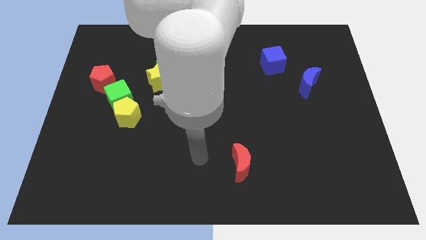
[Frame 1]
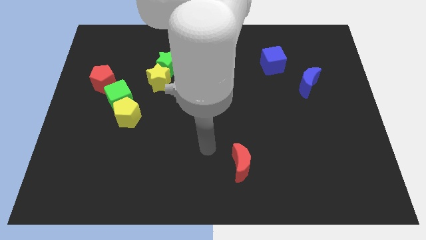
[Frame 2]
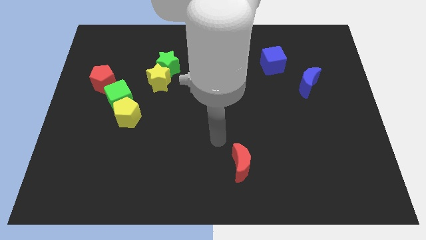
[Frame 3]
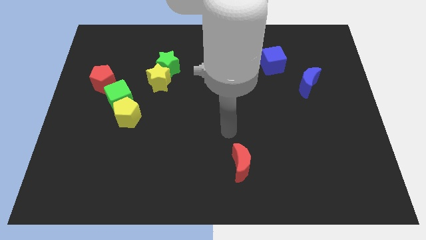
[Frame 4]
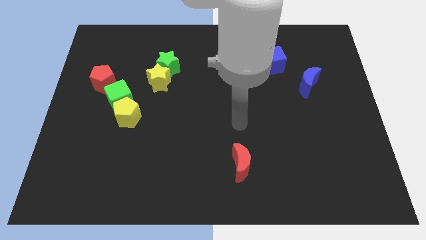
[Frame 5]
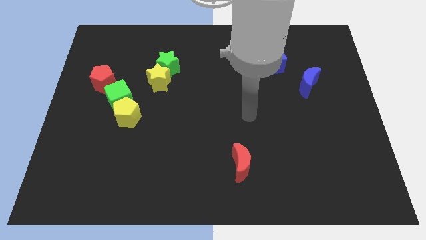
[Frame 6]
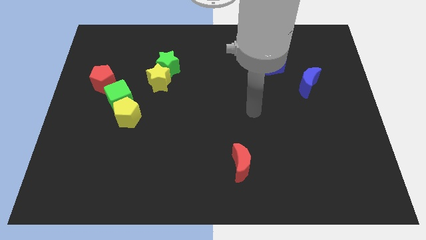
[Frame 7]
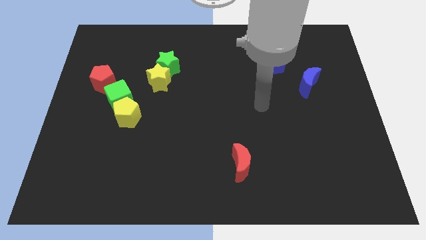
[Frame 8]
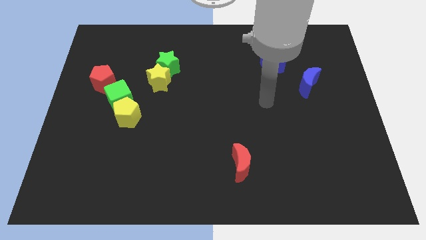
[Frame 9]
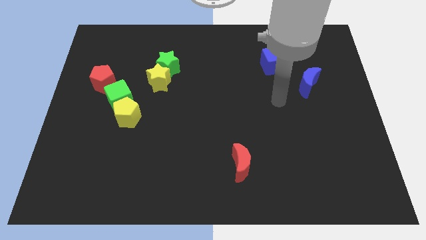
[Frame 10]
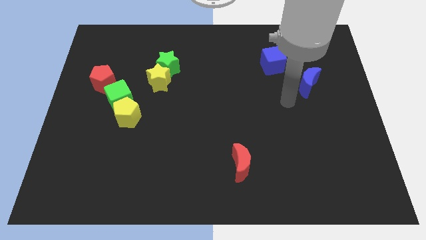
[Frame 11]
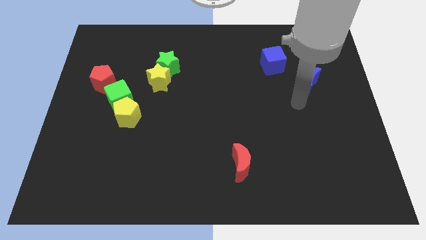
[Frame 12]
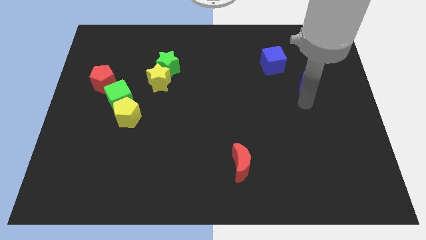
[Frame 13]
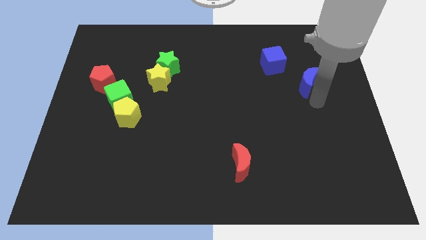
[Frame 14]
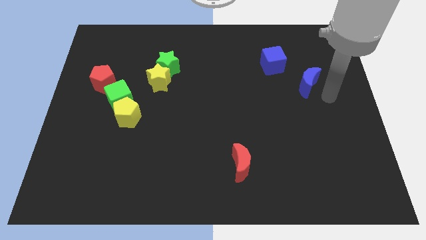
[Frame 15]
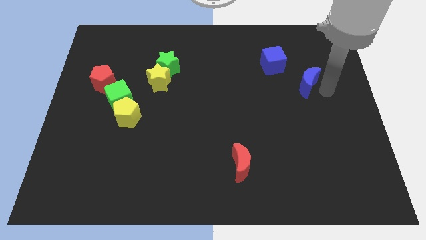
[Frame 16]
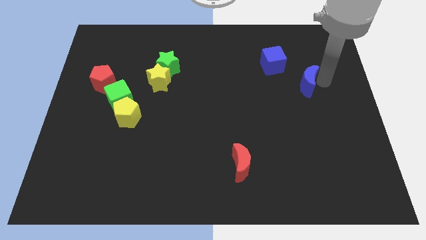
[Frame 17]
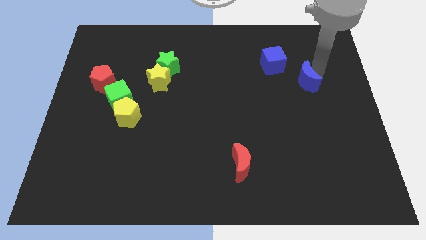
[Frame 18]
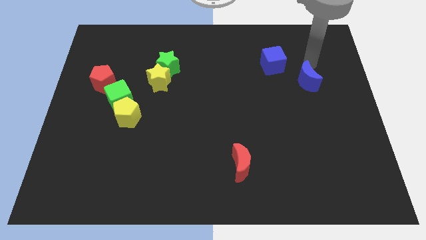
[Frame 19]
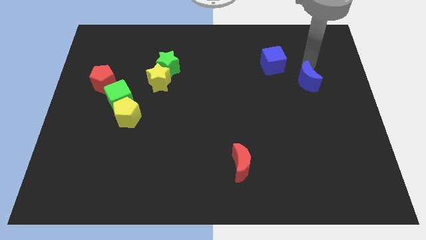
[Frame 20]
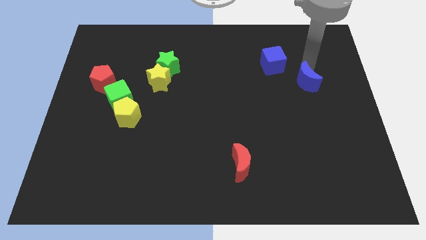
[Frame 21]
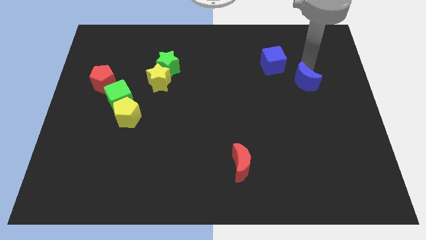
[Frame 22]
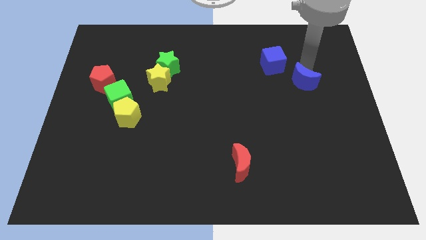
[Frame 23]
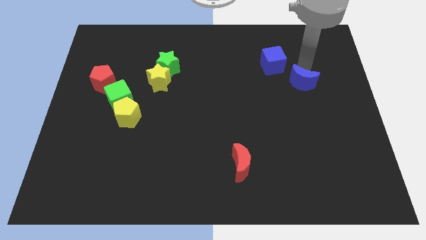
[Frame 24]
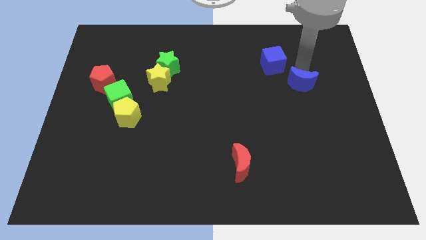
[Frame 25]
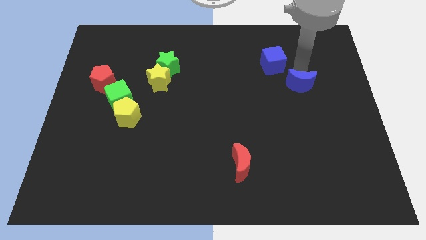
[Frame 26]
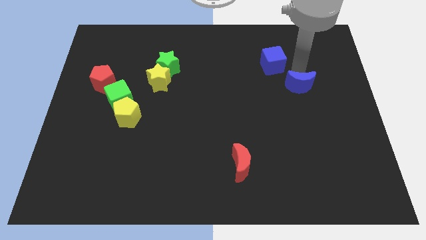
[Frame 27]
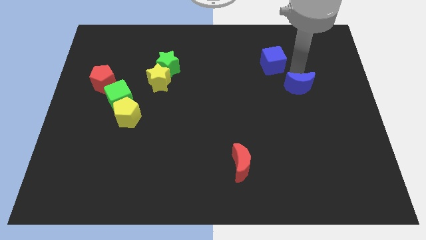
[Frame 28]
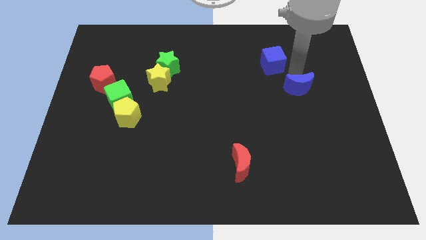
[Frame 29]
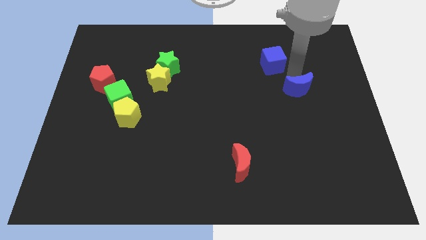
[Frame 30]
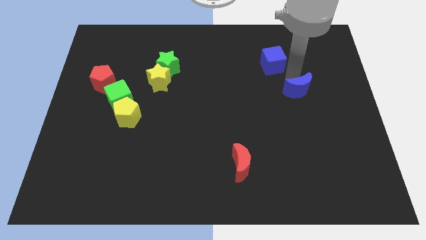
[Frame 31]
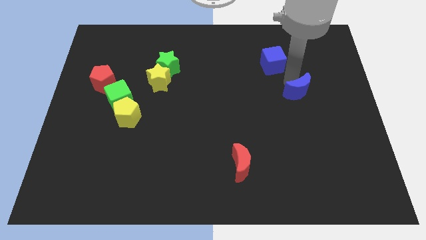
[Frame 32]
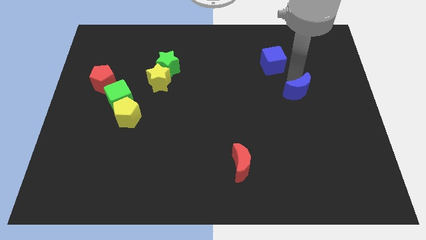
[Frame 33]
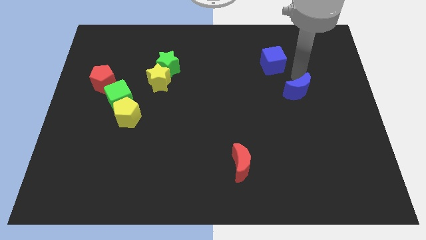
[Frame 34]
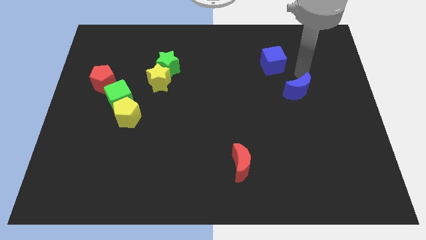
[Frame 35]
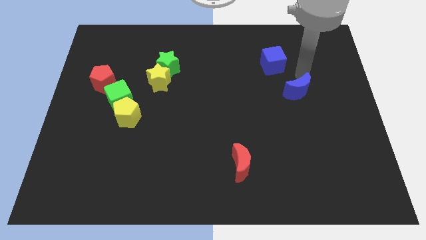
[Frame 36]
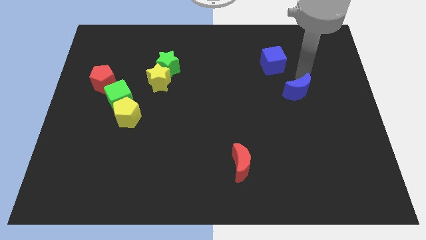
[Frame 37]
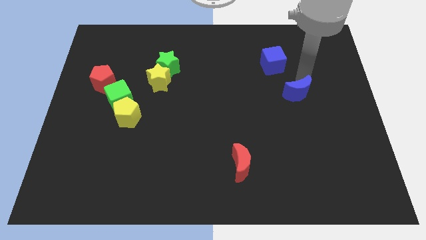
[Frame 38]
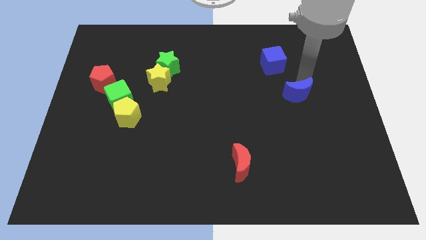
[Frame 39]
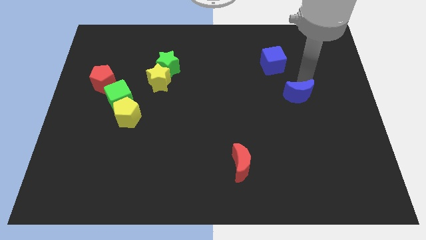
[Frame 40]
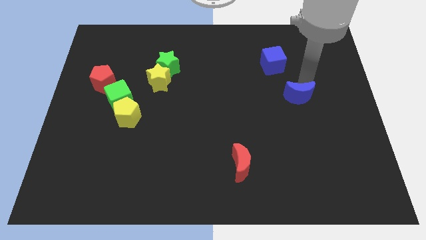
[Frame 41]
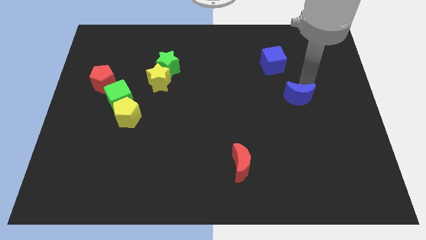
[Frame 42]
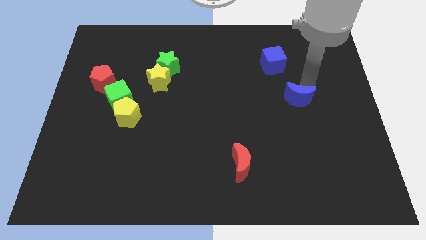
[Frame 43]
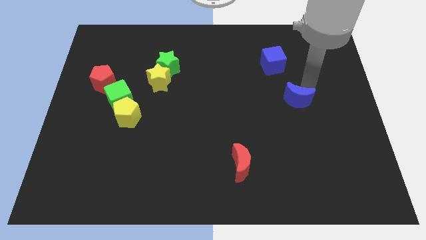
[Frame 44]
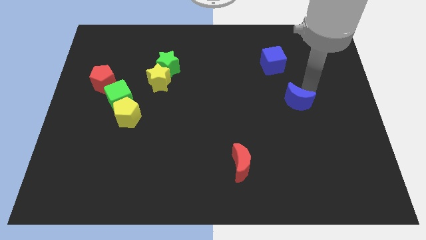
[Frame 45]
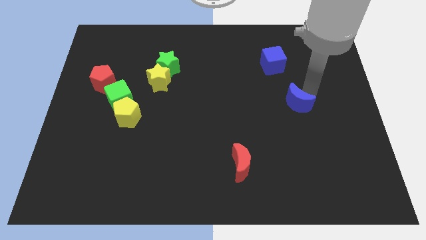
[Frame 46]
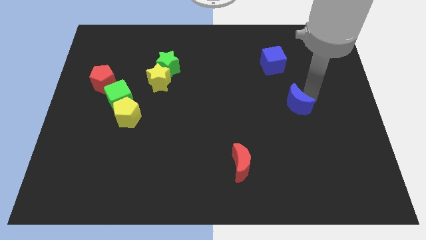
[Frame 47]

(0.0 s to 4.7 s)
slide the blue moon down and left somewhat

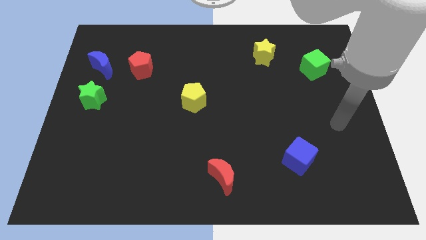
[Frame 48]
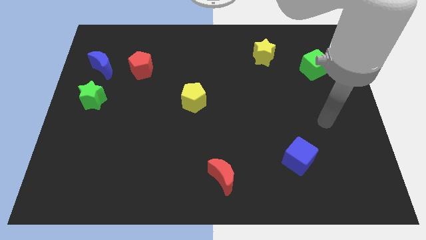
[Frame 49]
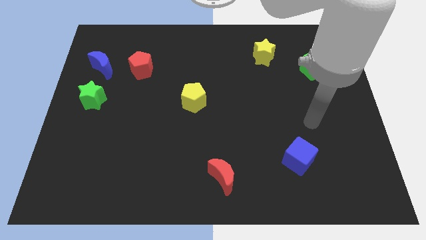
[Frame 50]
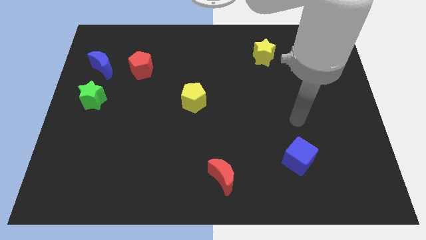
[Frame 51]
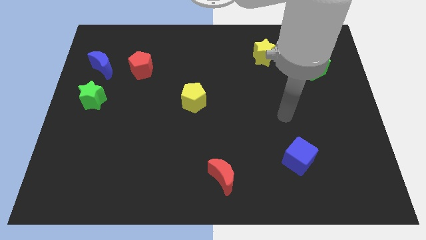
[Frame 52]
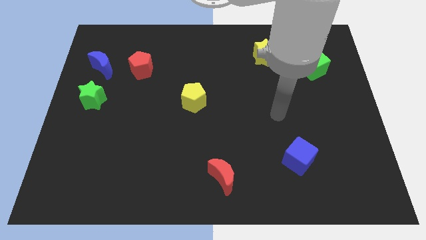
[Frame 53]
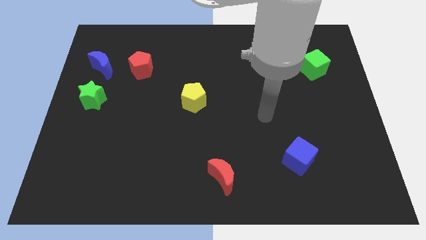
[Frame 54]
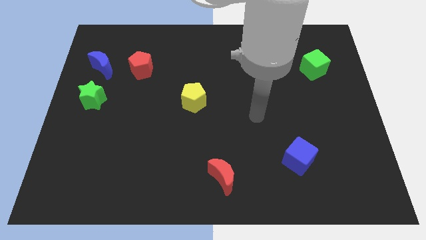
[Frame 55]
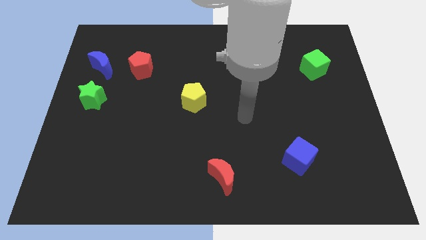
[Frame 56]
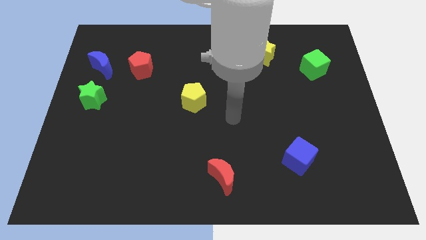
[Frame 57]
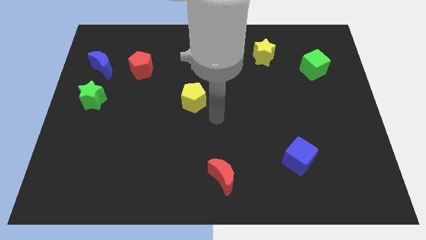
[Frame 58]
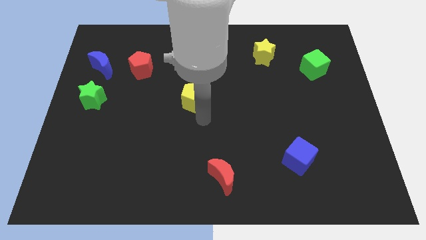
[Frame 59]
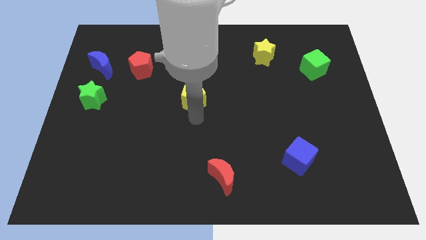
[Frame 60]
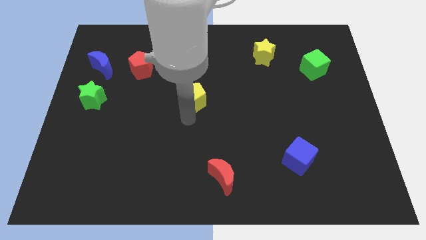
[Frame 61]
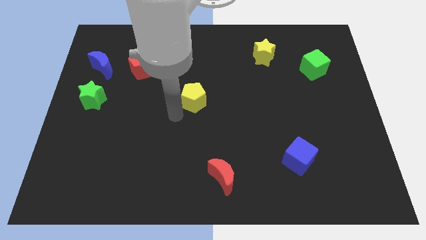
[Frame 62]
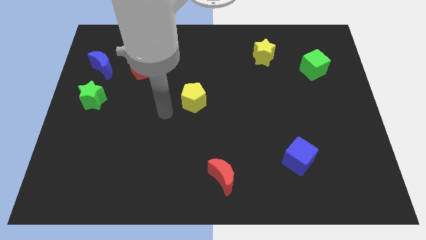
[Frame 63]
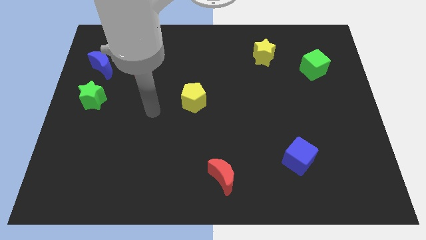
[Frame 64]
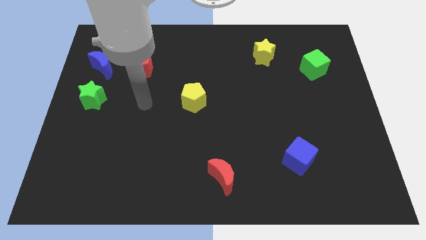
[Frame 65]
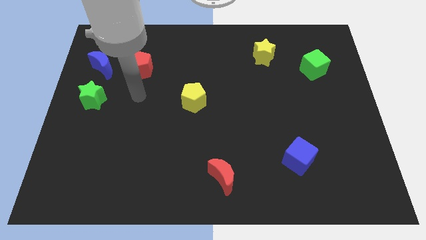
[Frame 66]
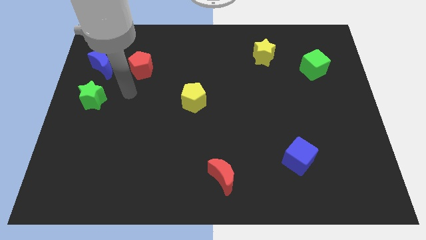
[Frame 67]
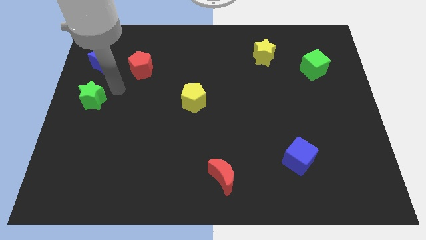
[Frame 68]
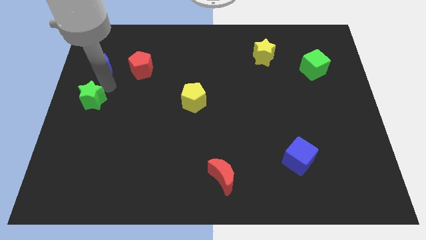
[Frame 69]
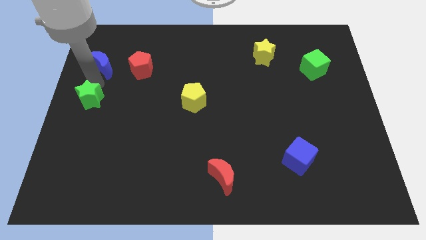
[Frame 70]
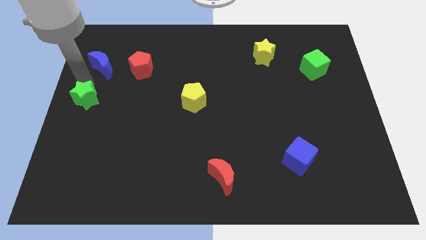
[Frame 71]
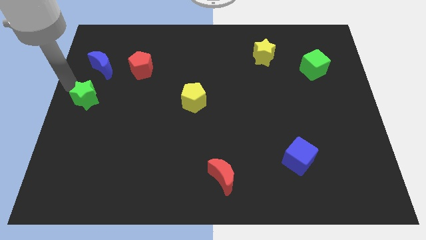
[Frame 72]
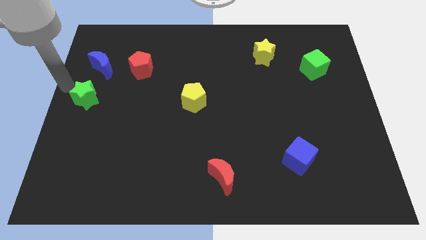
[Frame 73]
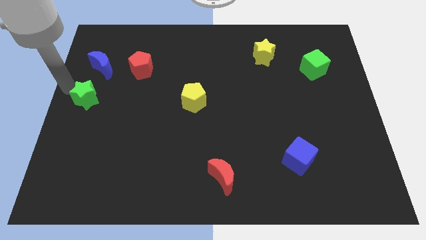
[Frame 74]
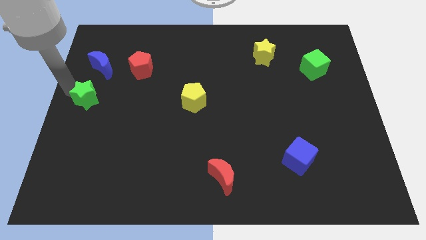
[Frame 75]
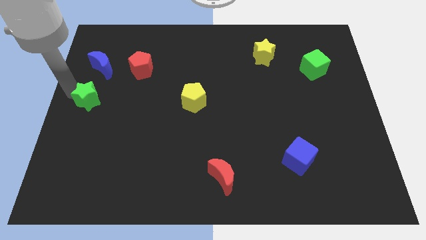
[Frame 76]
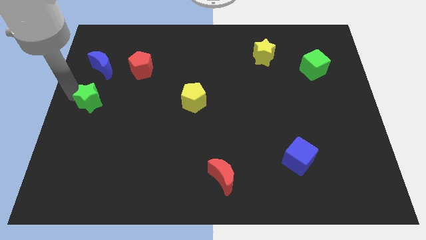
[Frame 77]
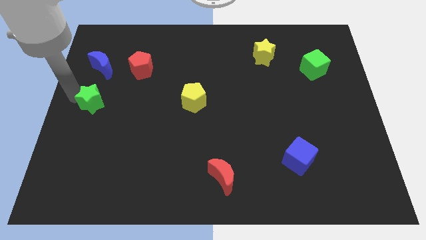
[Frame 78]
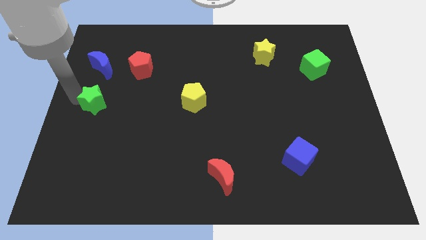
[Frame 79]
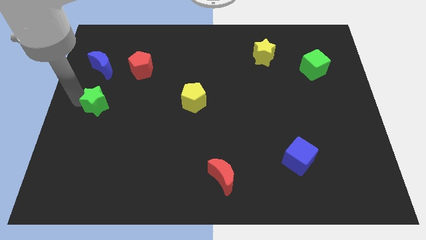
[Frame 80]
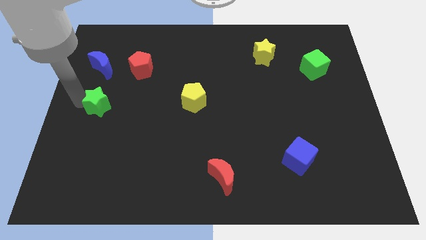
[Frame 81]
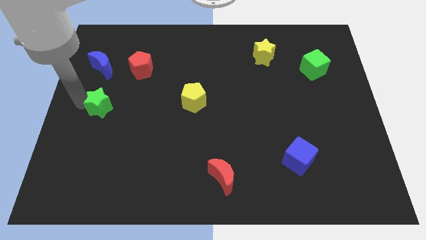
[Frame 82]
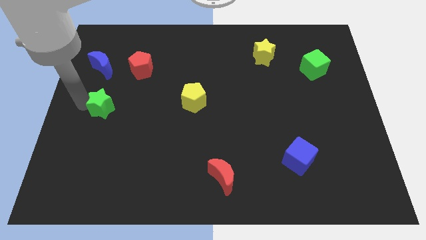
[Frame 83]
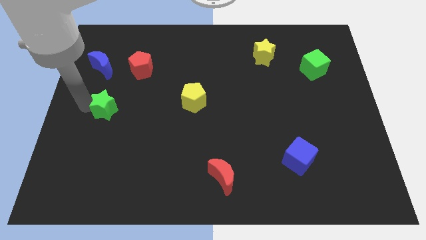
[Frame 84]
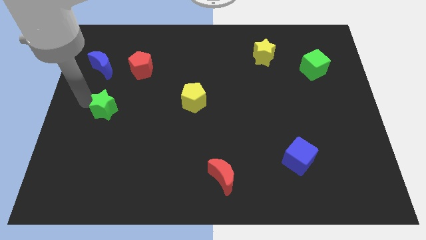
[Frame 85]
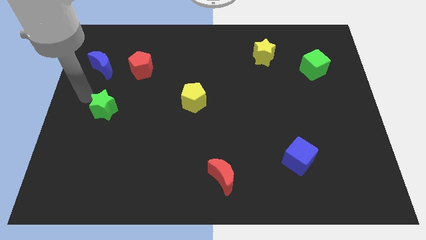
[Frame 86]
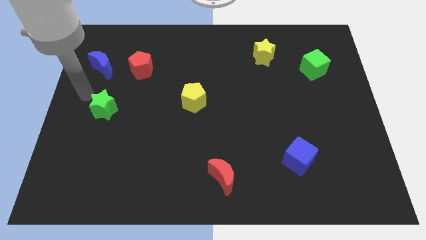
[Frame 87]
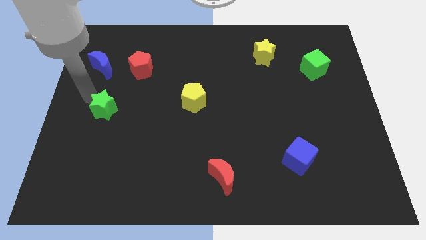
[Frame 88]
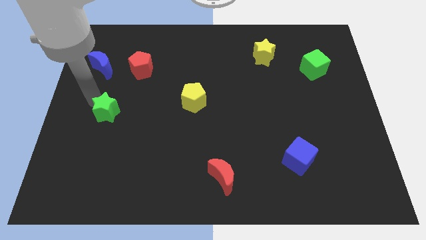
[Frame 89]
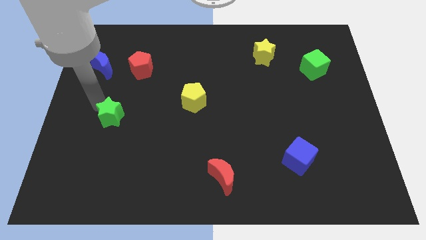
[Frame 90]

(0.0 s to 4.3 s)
move the green star downwards and then to the right a bit
